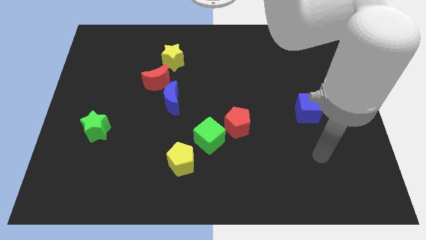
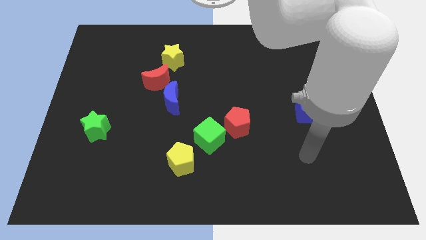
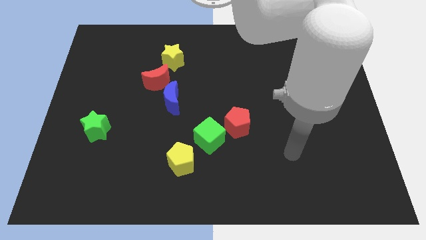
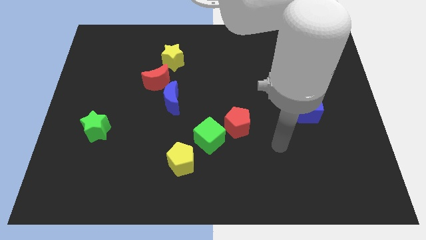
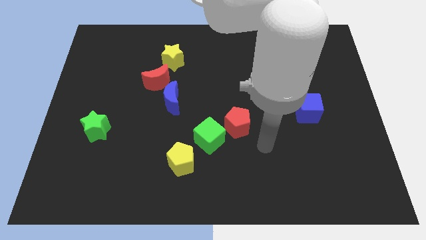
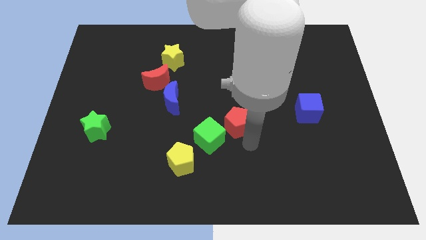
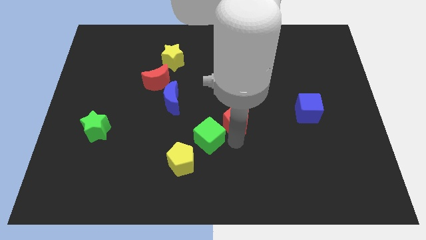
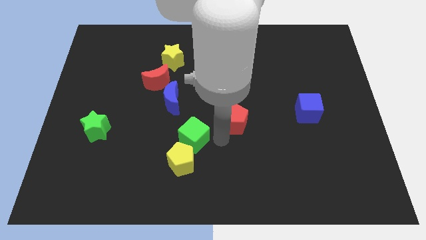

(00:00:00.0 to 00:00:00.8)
separate the red pentagon from the green cube

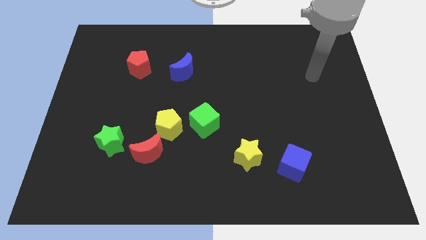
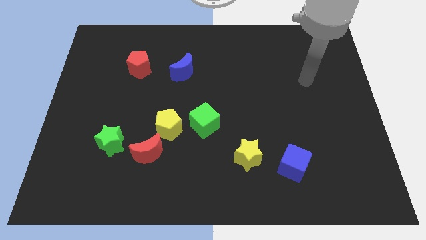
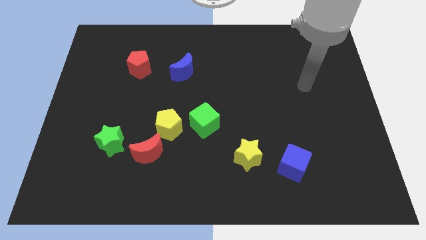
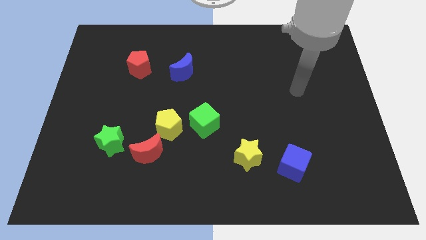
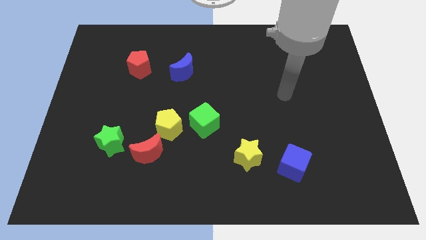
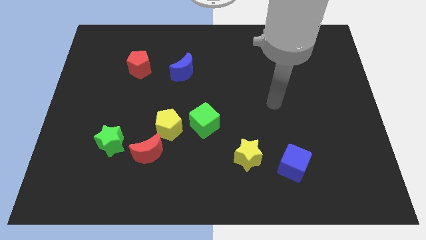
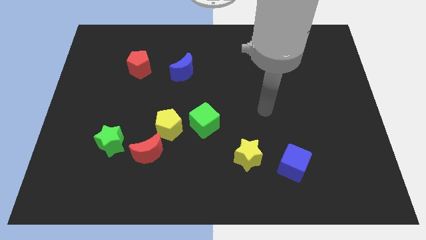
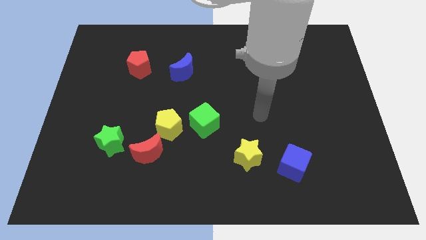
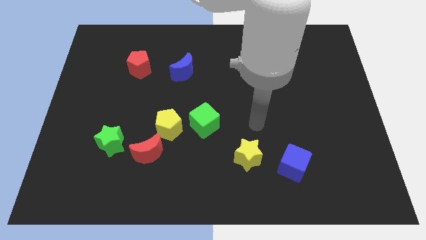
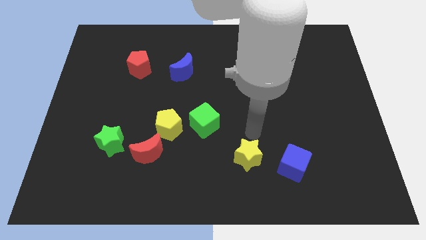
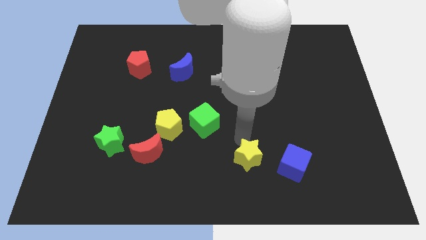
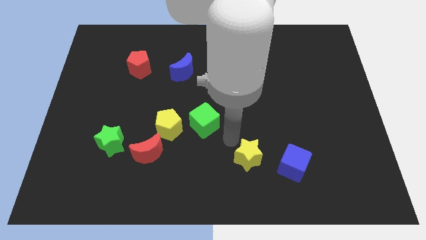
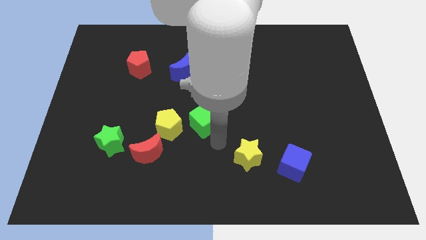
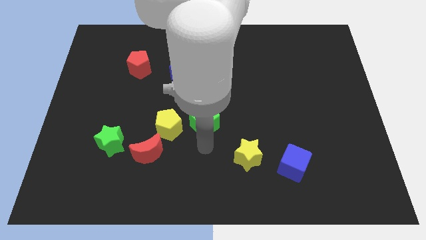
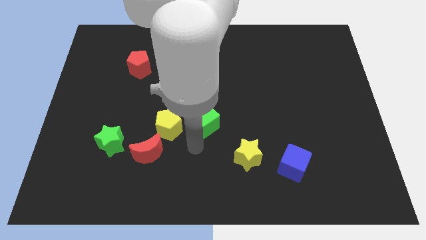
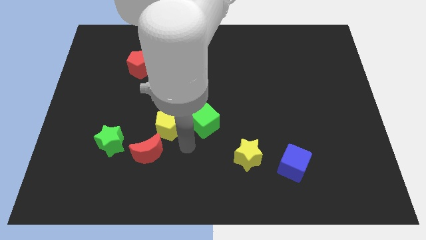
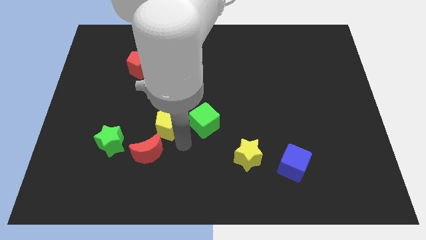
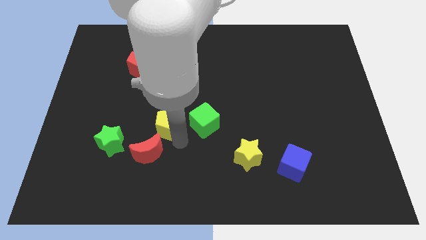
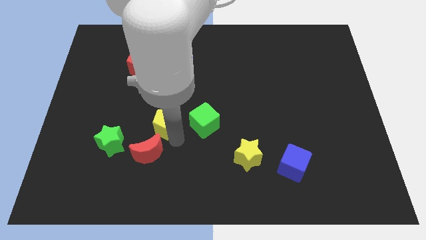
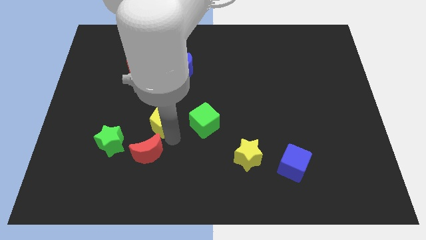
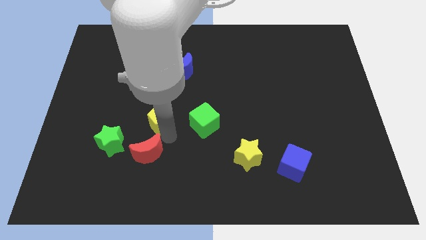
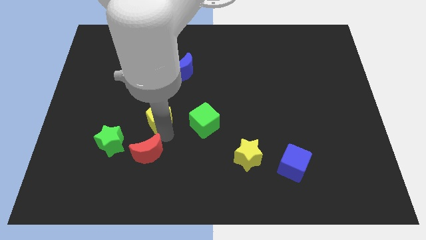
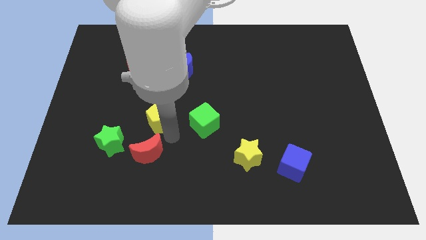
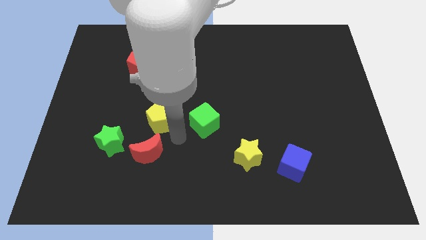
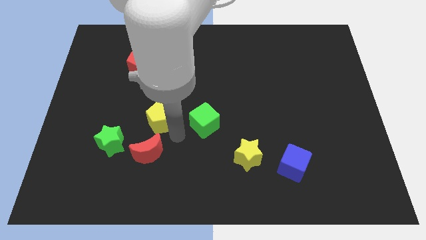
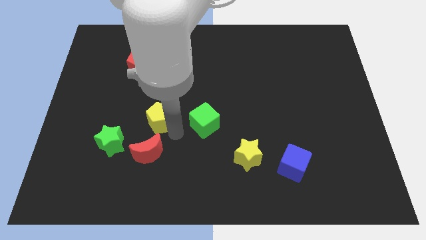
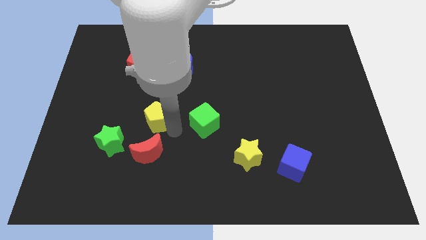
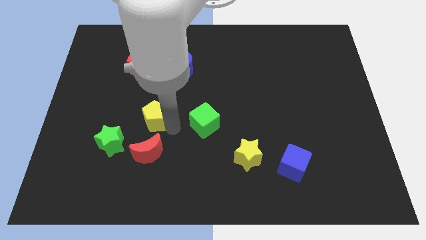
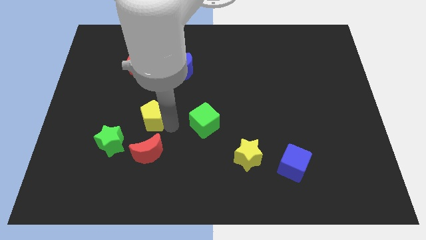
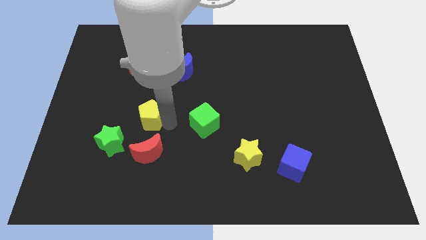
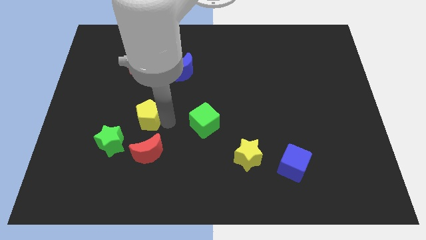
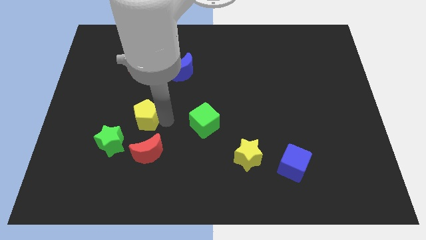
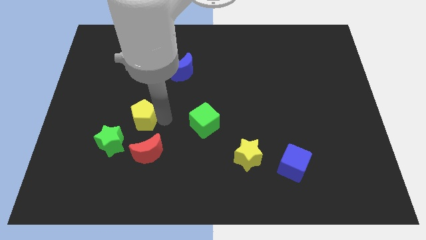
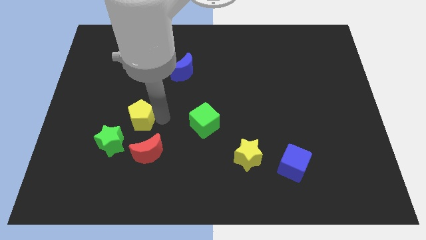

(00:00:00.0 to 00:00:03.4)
separate the yellow pentagon from the red moon and green cube

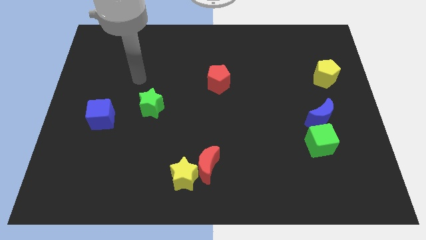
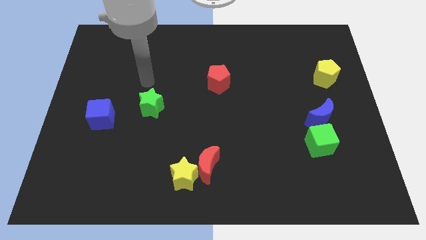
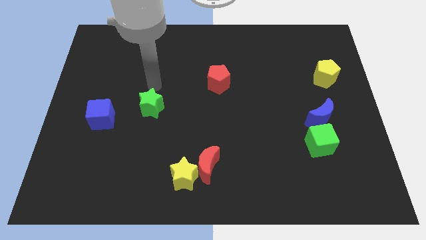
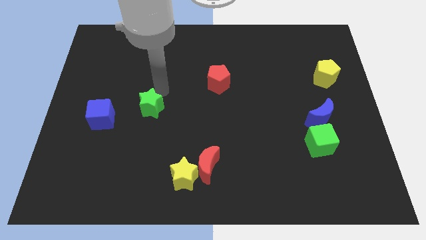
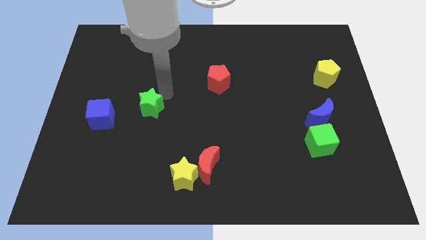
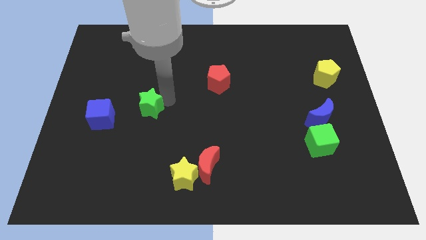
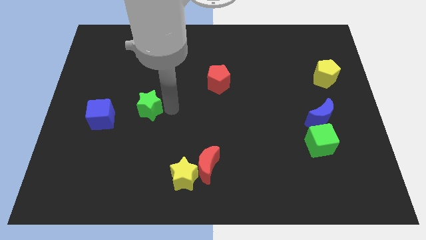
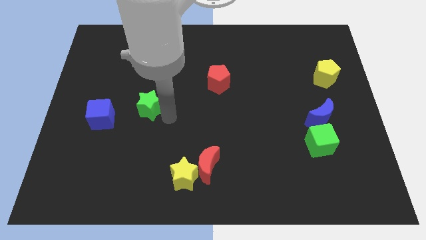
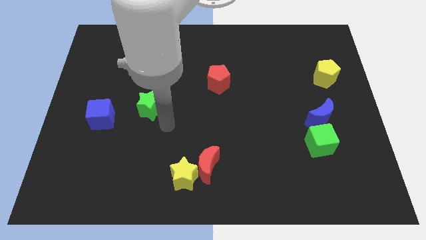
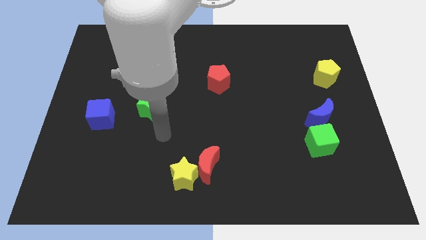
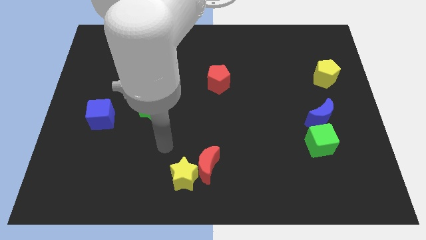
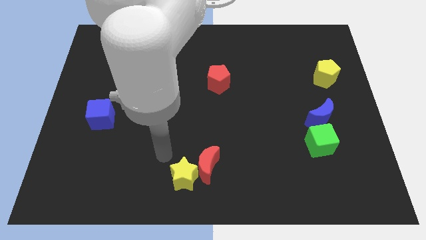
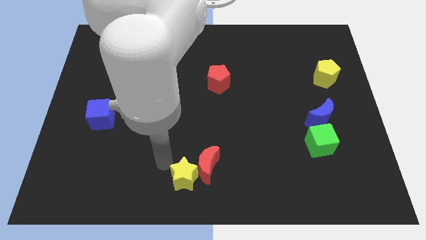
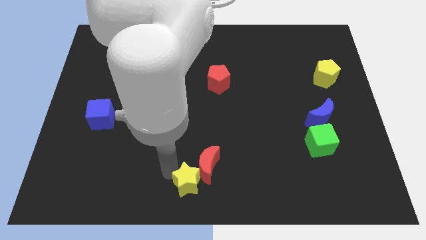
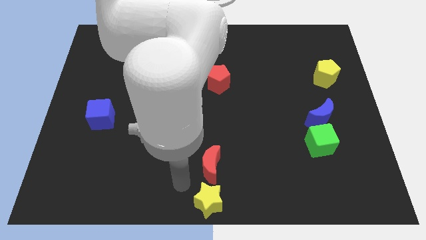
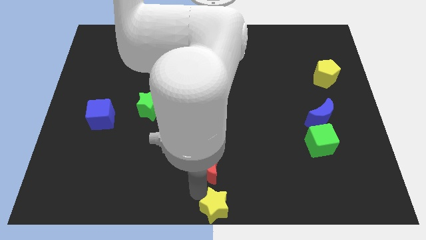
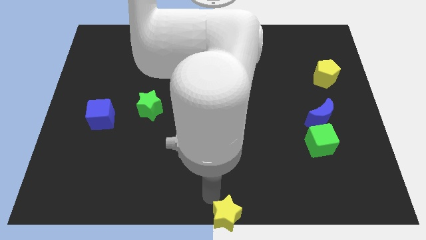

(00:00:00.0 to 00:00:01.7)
move the red moon away from the yellow star

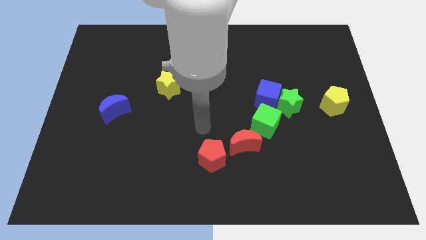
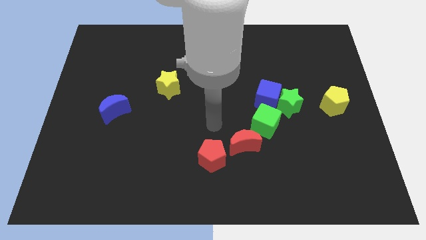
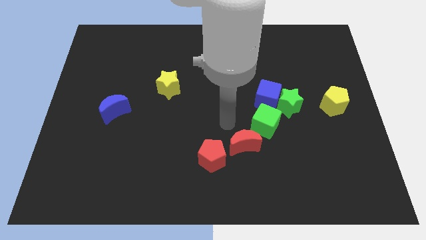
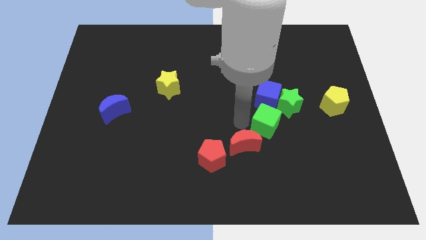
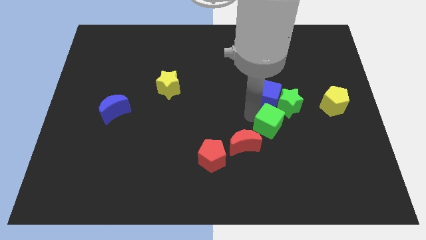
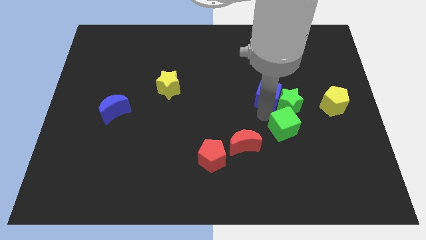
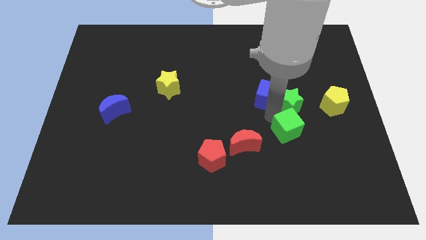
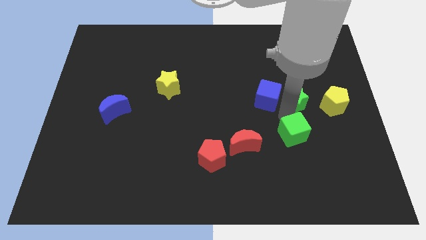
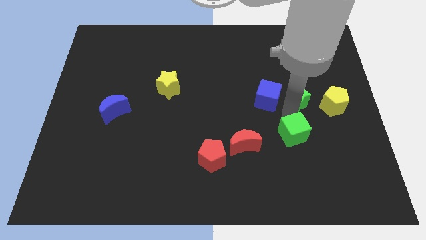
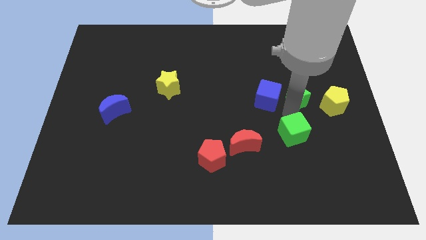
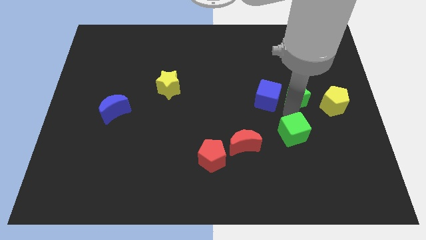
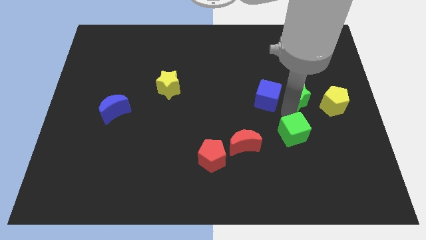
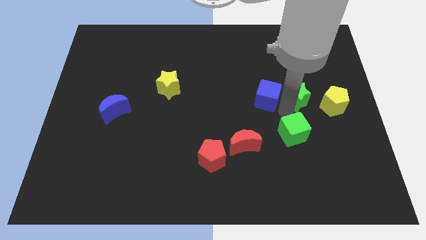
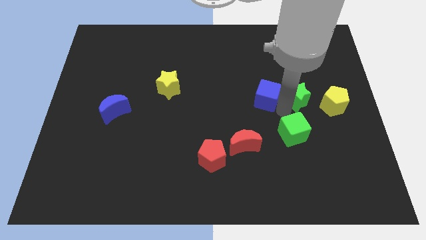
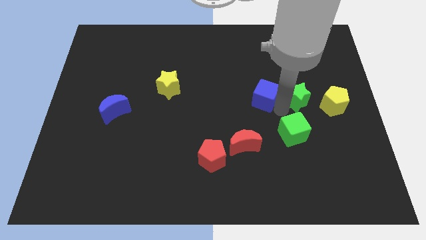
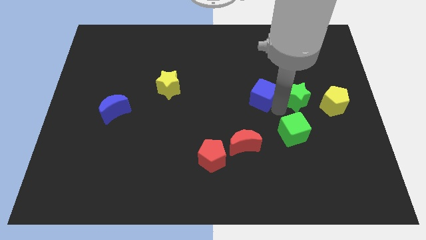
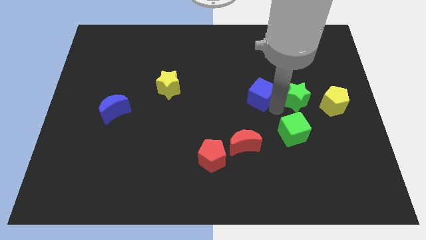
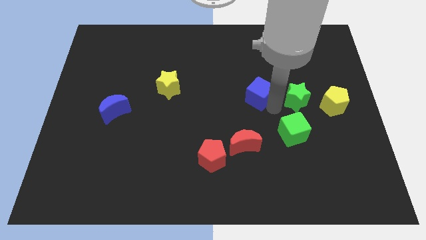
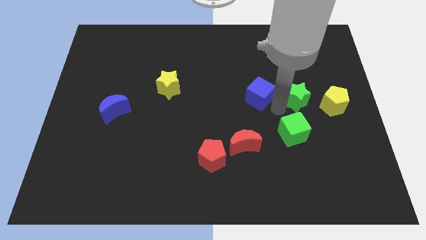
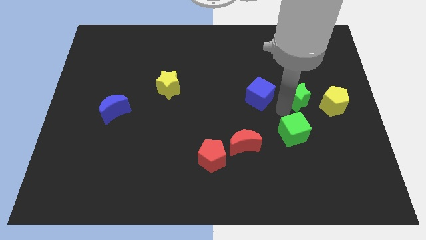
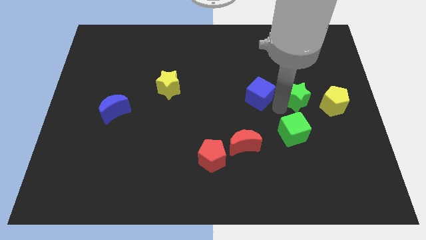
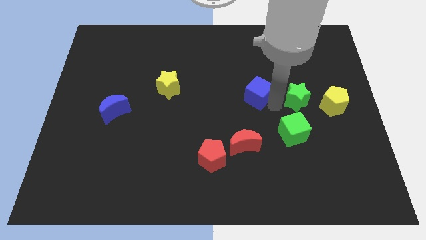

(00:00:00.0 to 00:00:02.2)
pull the blue cube apart from the green star and green cube

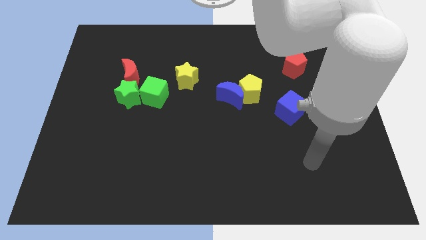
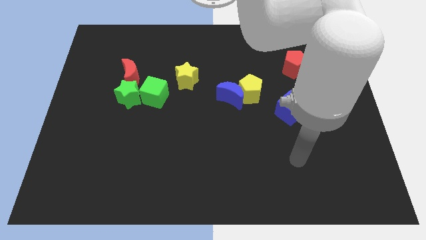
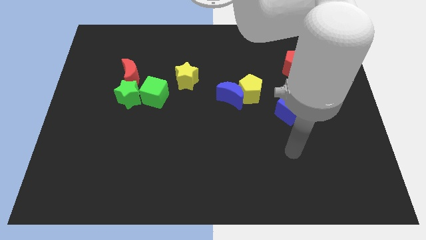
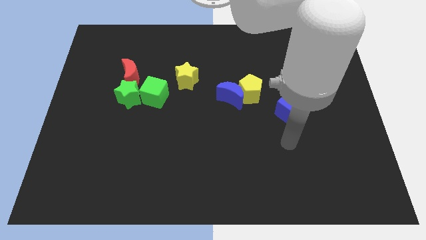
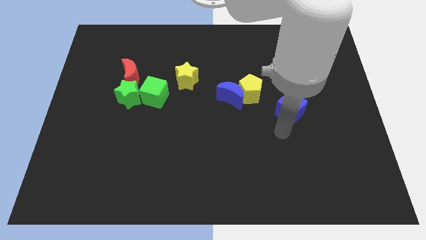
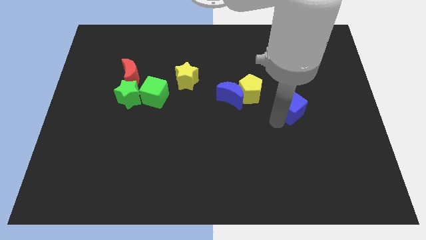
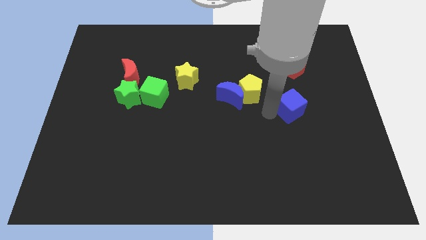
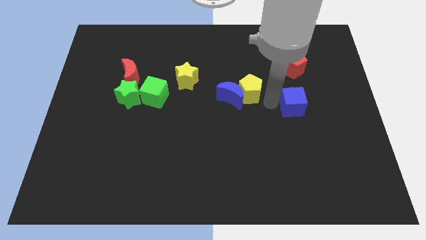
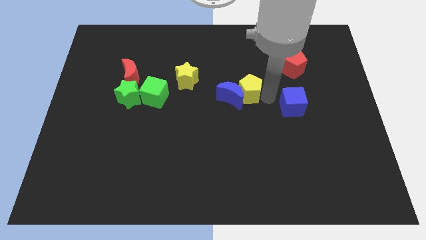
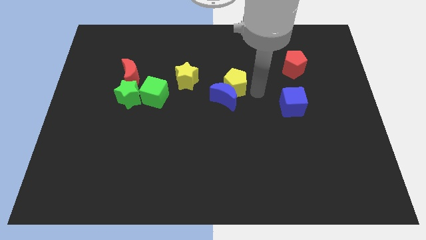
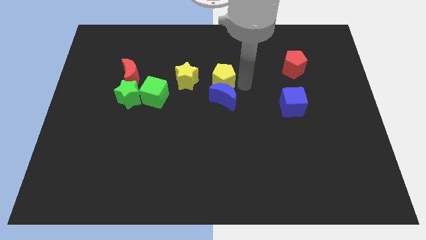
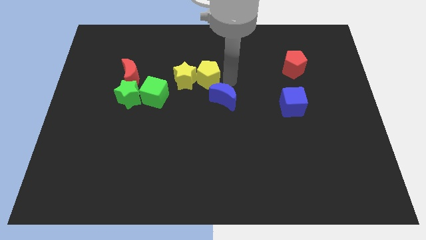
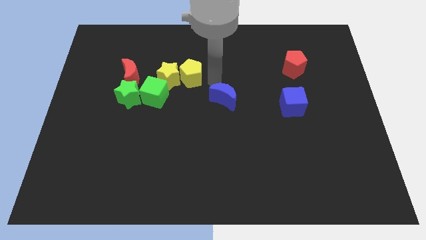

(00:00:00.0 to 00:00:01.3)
move the blue moon away from the yellow pentagon

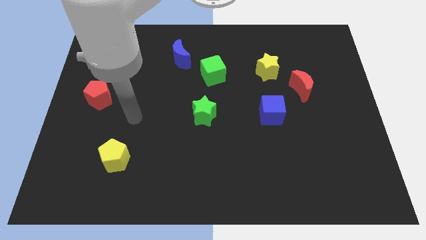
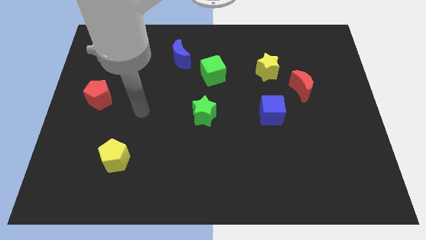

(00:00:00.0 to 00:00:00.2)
separate the red moon from the yellow star
